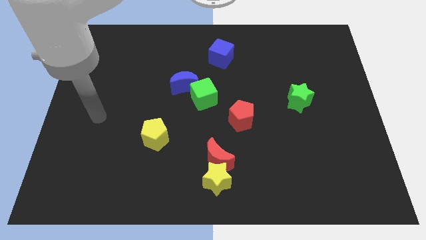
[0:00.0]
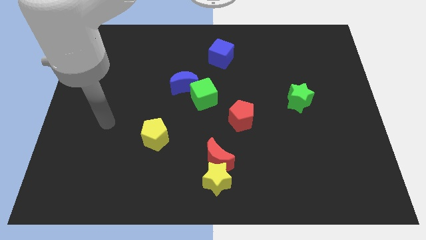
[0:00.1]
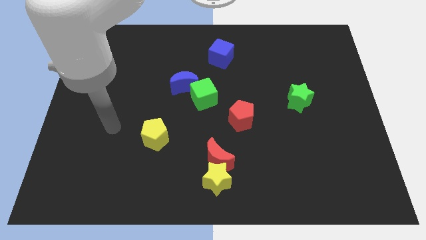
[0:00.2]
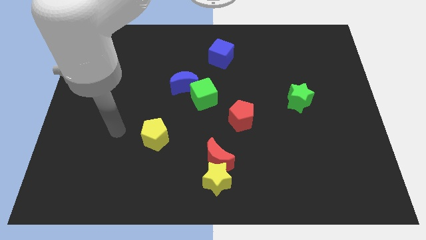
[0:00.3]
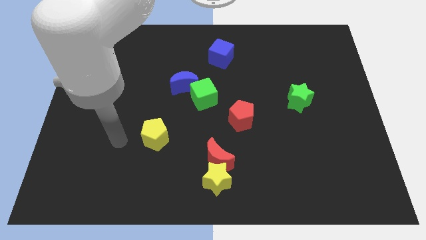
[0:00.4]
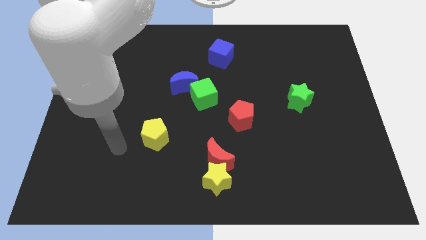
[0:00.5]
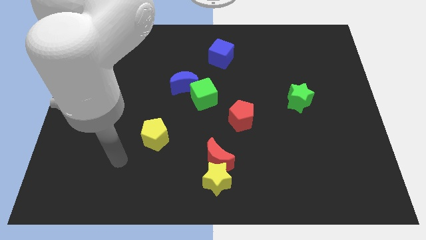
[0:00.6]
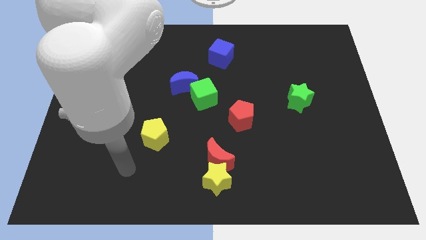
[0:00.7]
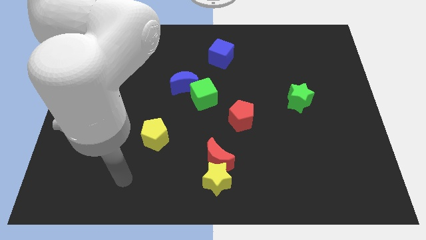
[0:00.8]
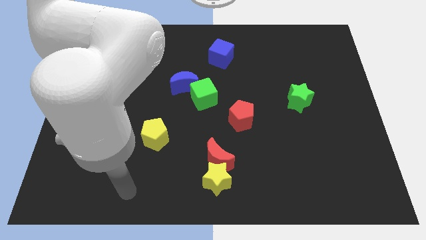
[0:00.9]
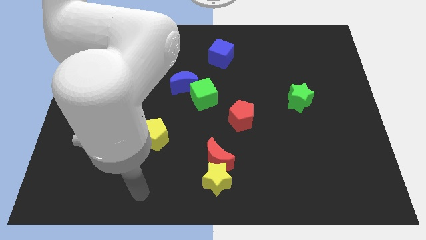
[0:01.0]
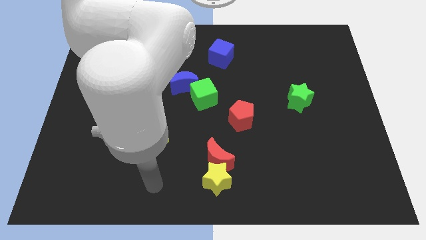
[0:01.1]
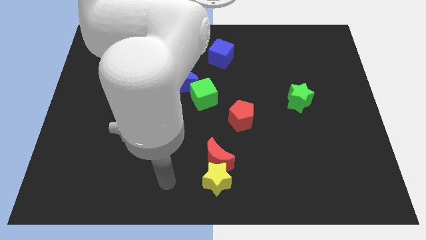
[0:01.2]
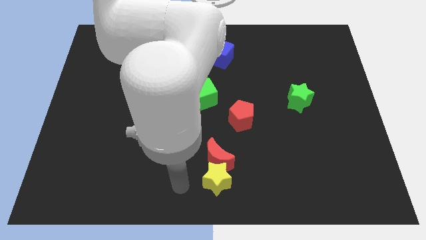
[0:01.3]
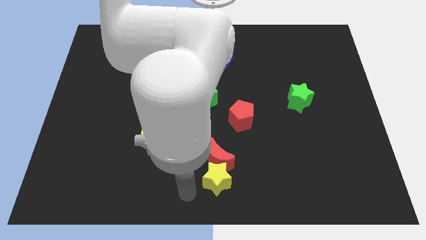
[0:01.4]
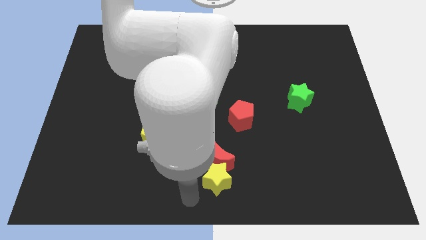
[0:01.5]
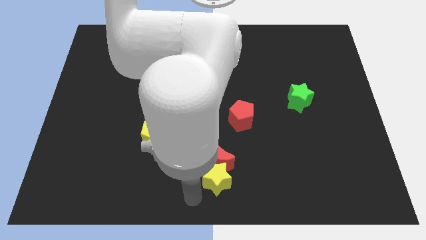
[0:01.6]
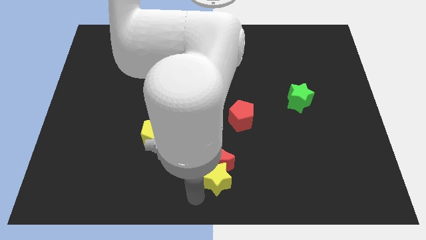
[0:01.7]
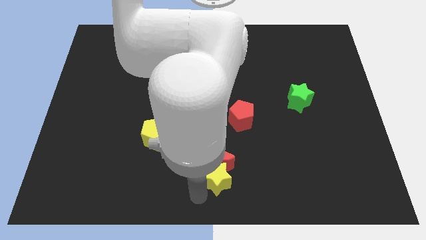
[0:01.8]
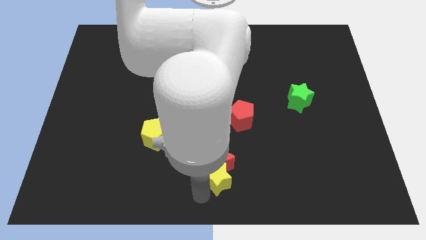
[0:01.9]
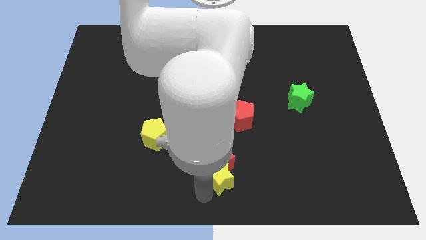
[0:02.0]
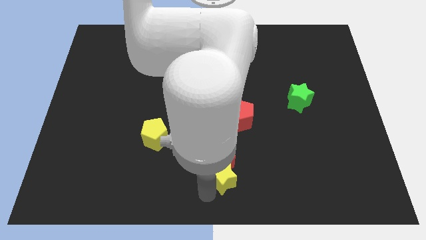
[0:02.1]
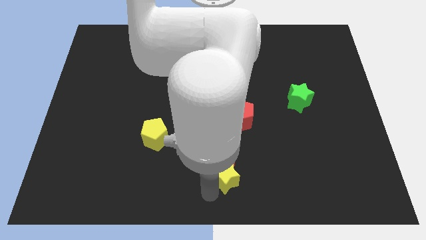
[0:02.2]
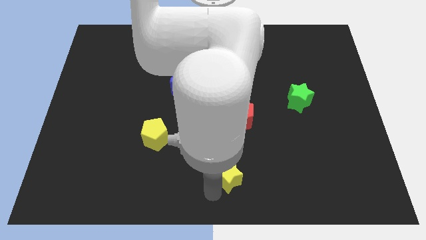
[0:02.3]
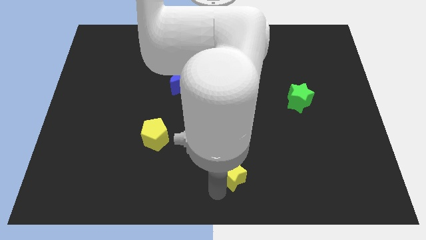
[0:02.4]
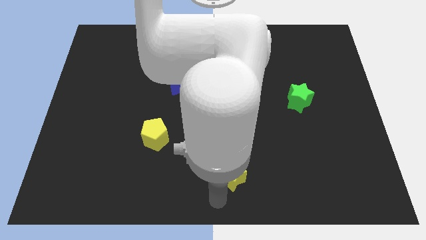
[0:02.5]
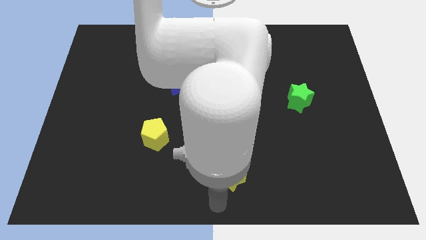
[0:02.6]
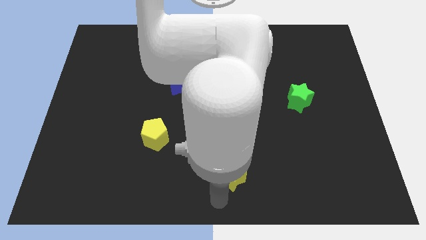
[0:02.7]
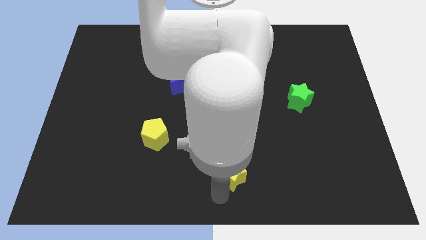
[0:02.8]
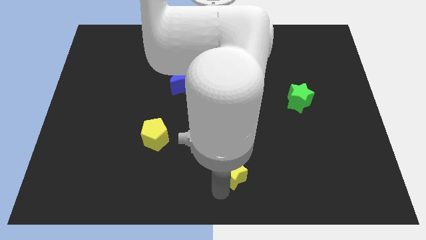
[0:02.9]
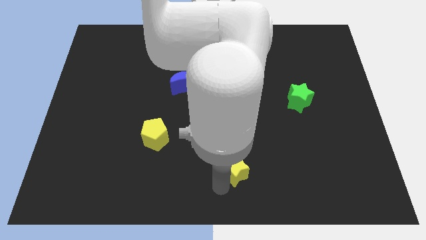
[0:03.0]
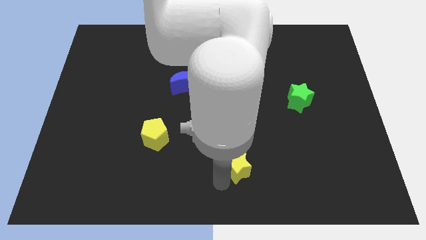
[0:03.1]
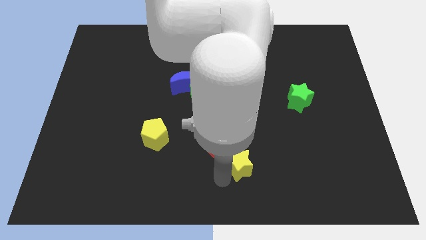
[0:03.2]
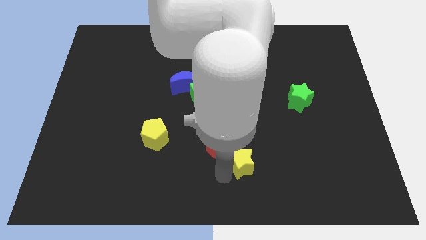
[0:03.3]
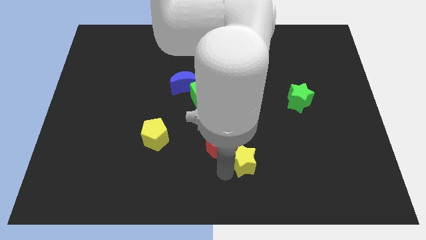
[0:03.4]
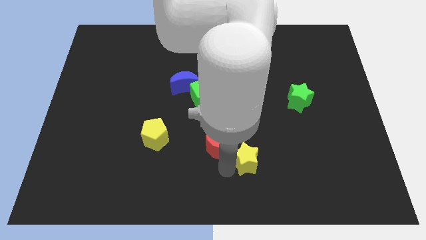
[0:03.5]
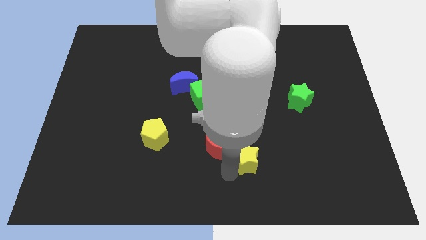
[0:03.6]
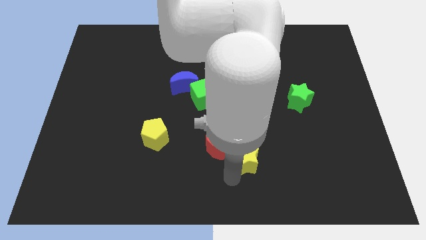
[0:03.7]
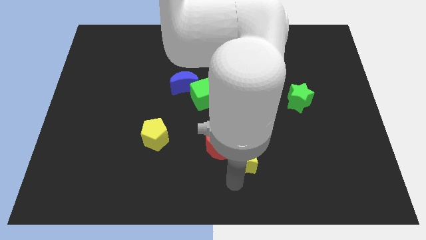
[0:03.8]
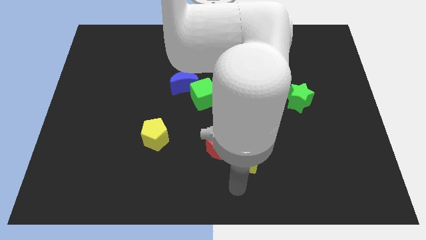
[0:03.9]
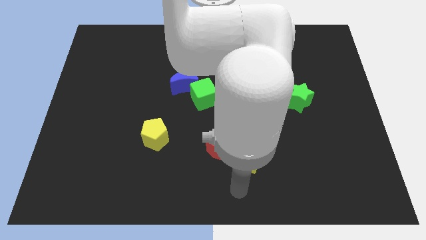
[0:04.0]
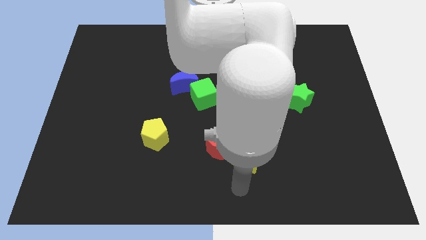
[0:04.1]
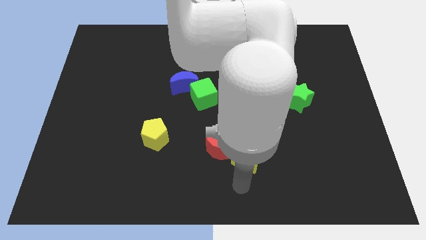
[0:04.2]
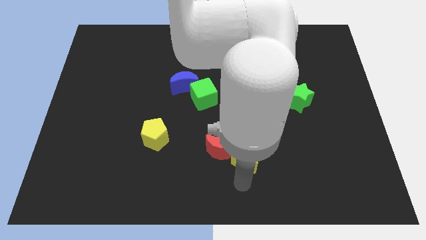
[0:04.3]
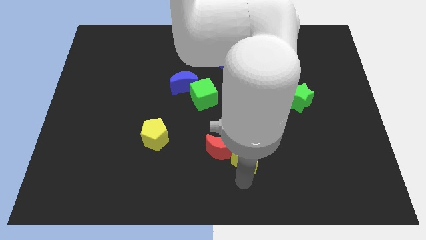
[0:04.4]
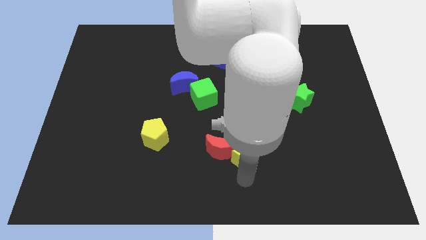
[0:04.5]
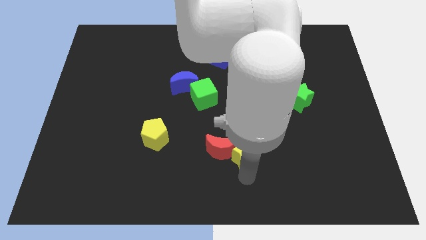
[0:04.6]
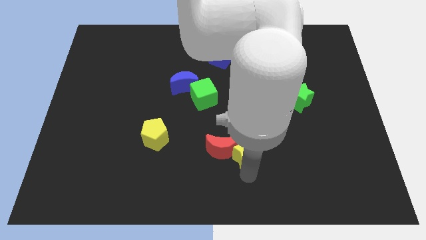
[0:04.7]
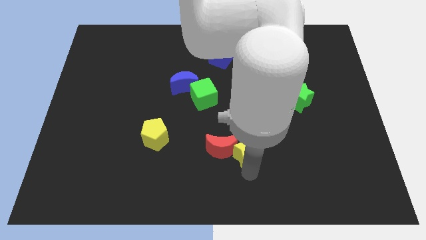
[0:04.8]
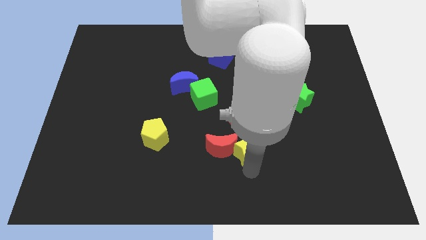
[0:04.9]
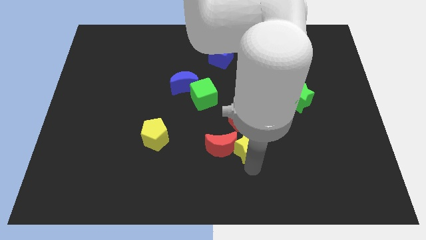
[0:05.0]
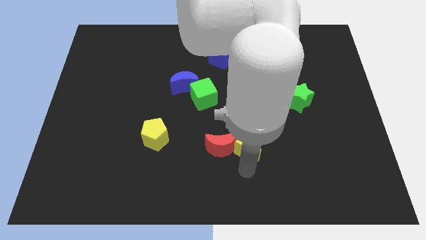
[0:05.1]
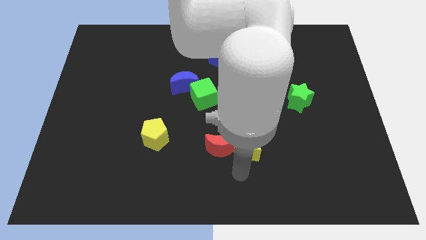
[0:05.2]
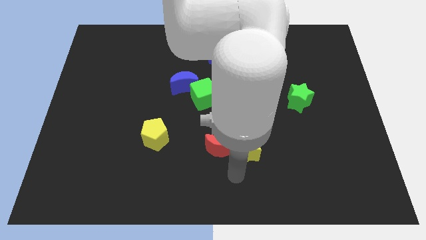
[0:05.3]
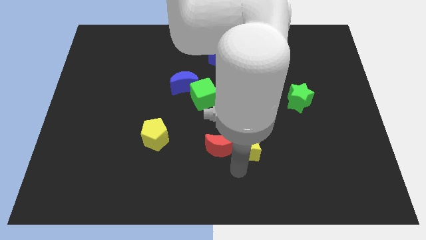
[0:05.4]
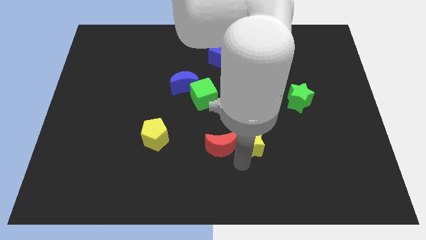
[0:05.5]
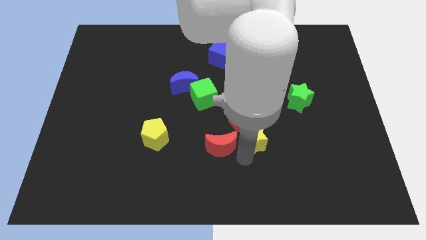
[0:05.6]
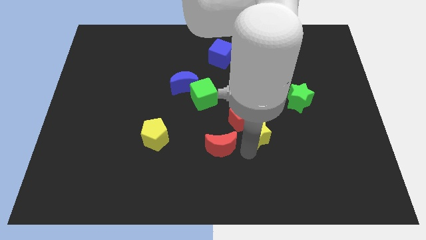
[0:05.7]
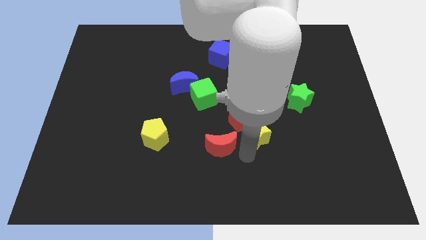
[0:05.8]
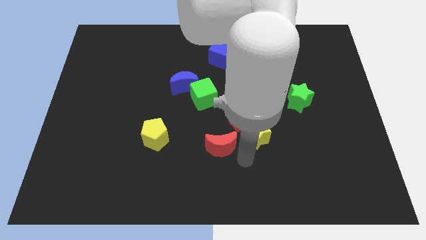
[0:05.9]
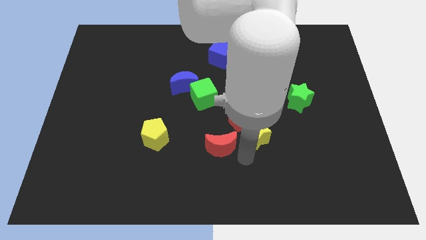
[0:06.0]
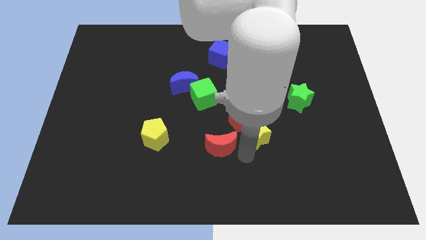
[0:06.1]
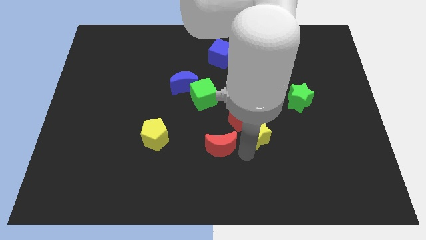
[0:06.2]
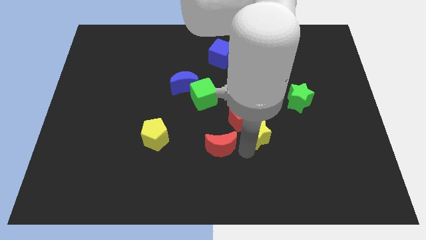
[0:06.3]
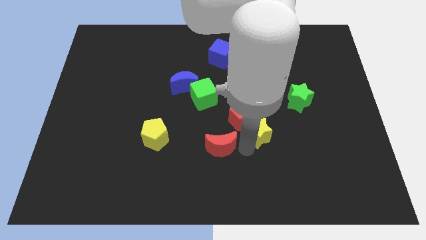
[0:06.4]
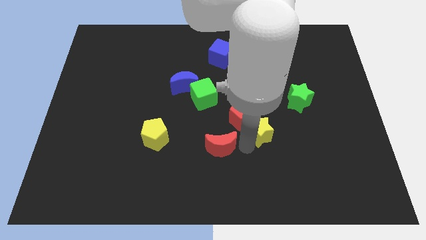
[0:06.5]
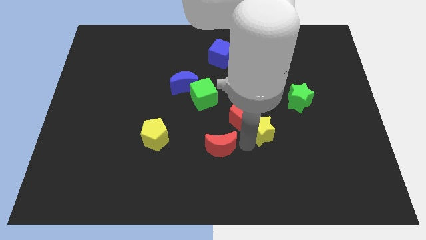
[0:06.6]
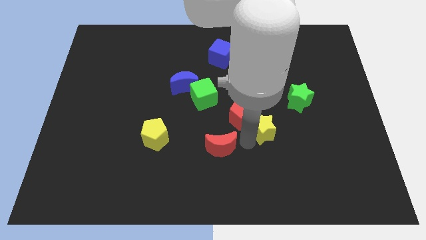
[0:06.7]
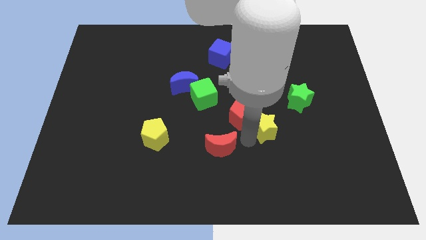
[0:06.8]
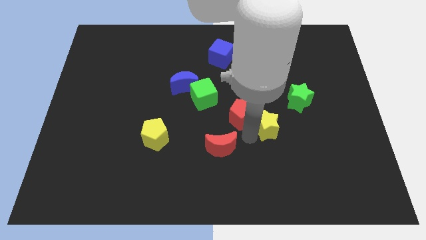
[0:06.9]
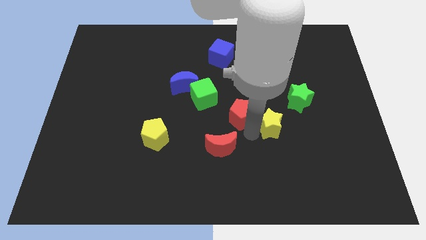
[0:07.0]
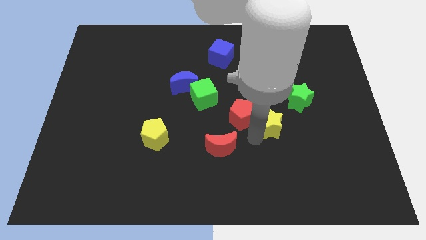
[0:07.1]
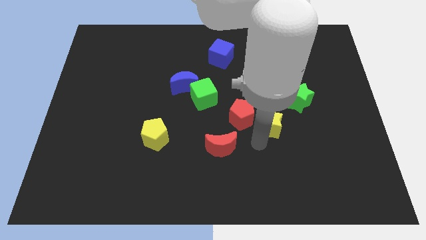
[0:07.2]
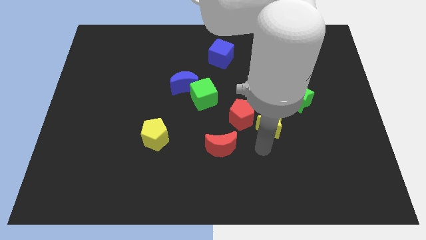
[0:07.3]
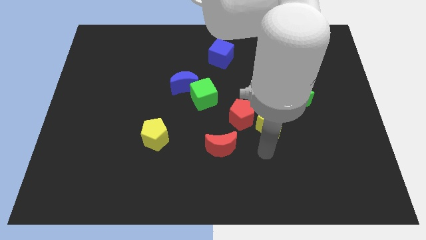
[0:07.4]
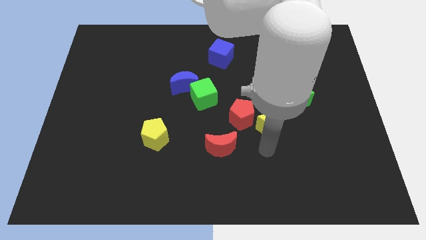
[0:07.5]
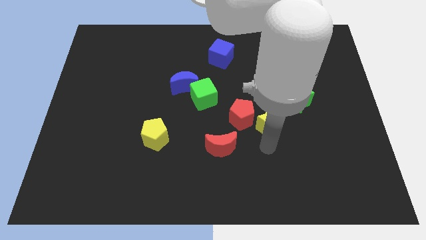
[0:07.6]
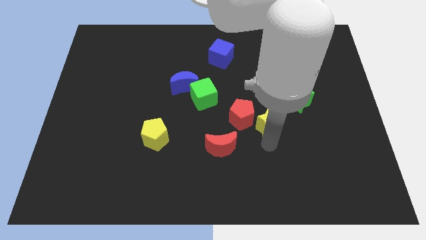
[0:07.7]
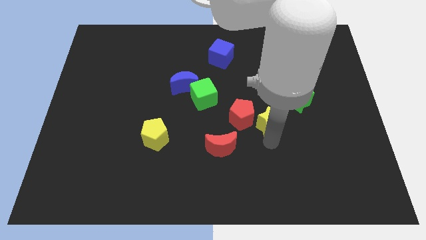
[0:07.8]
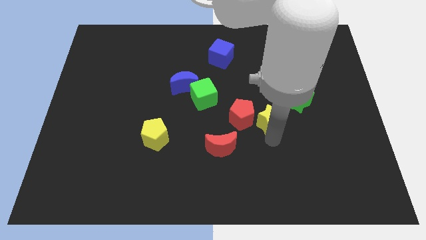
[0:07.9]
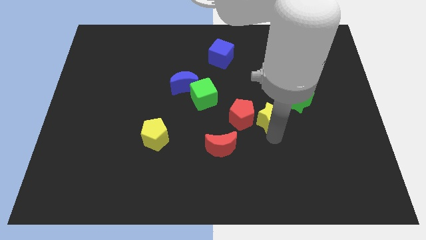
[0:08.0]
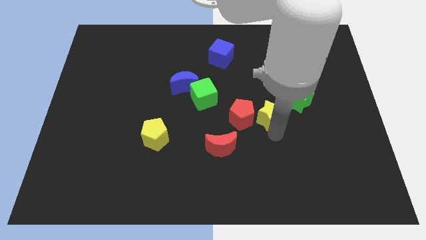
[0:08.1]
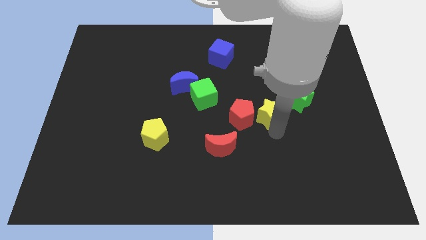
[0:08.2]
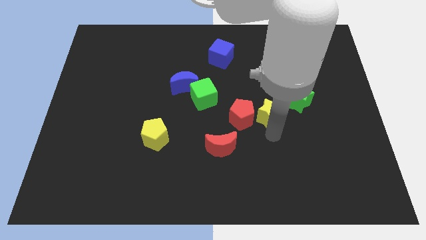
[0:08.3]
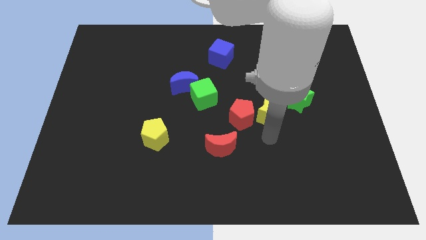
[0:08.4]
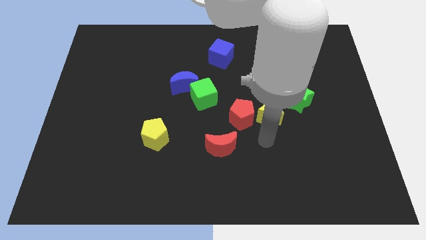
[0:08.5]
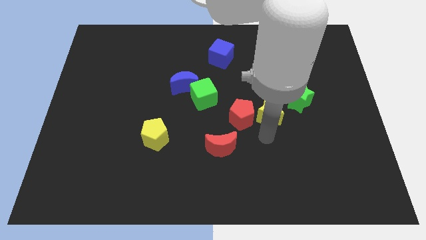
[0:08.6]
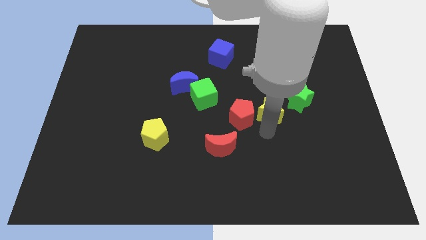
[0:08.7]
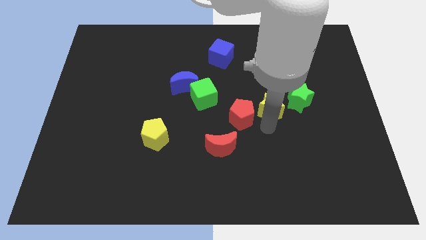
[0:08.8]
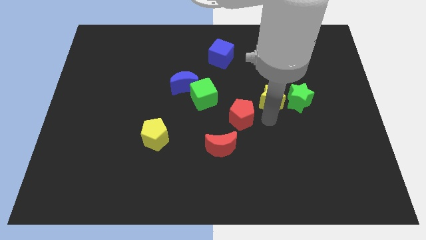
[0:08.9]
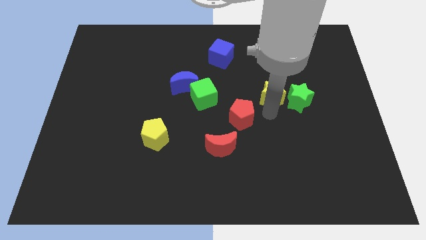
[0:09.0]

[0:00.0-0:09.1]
push the yellow star to the top left side of the green star
